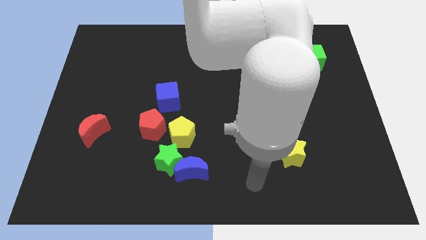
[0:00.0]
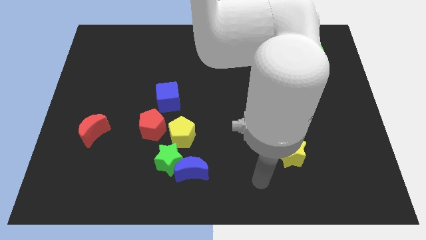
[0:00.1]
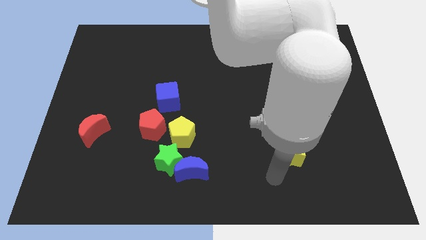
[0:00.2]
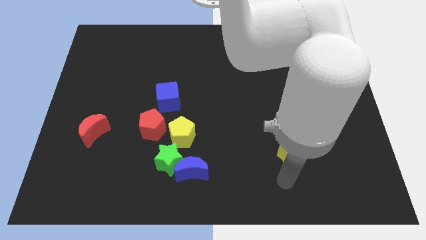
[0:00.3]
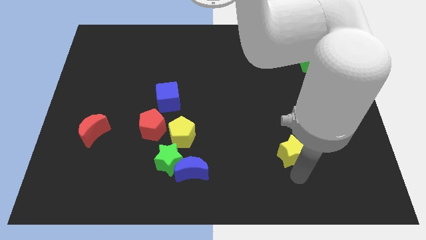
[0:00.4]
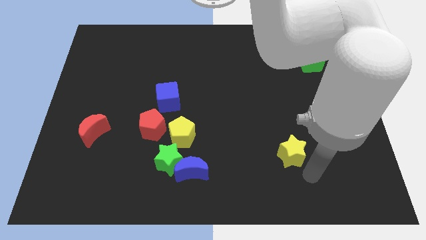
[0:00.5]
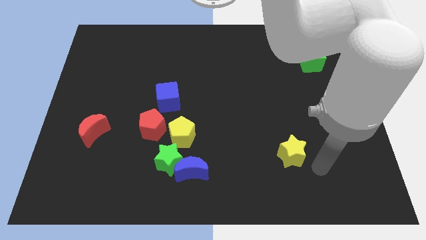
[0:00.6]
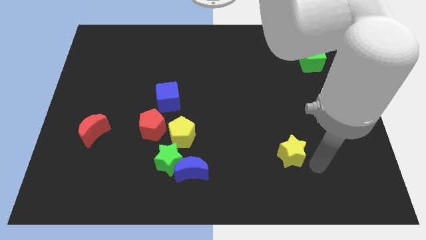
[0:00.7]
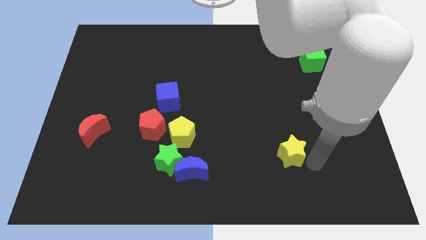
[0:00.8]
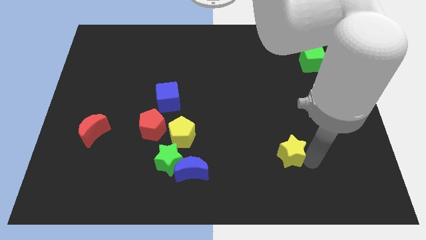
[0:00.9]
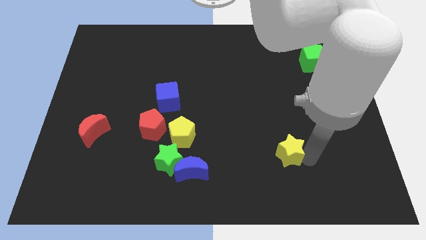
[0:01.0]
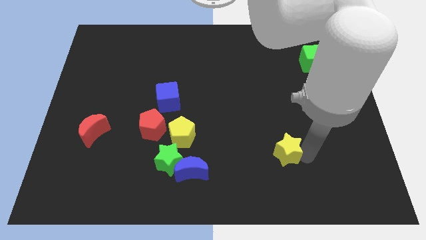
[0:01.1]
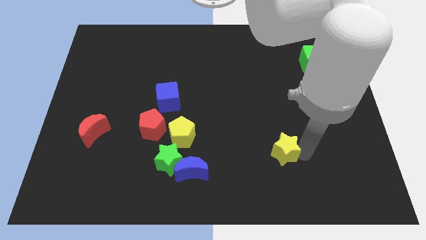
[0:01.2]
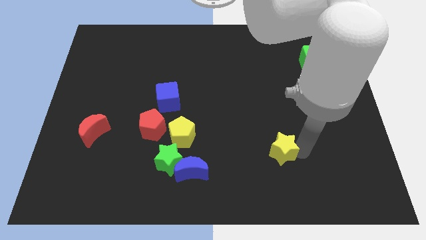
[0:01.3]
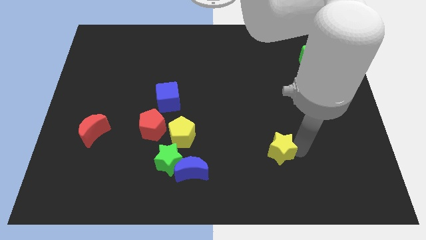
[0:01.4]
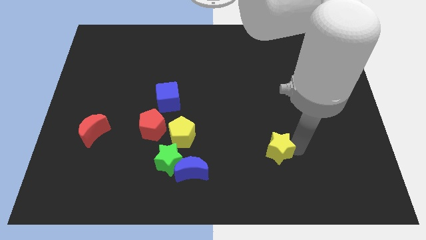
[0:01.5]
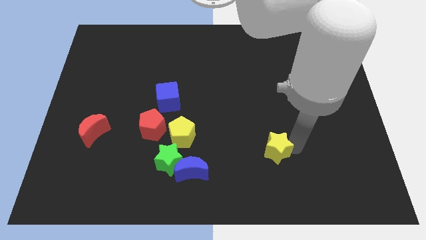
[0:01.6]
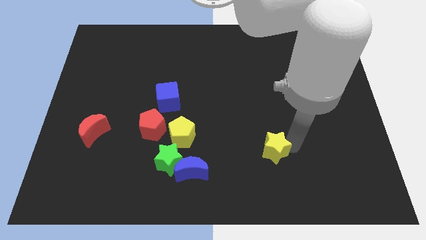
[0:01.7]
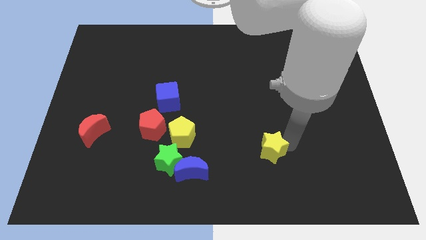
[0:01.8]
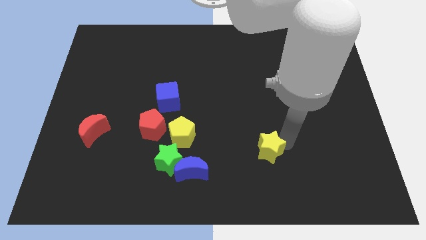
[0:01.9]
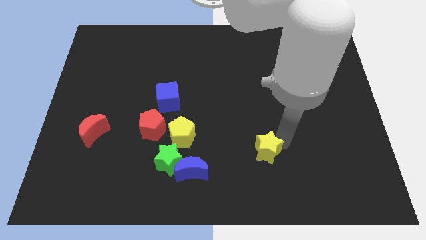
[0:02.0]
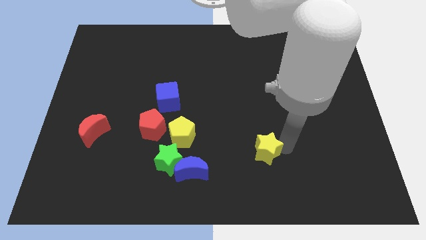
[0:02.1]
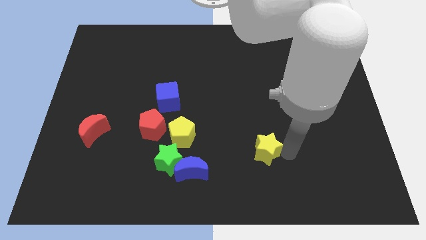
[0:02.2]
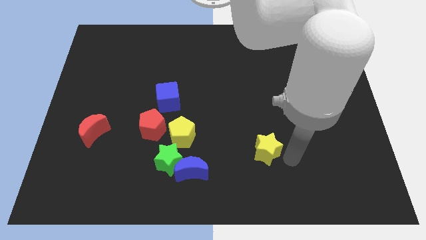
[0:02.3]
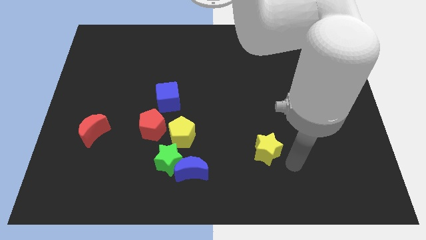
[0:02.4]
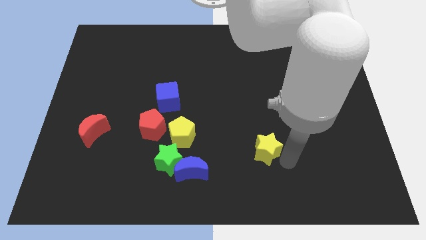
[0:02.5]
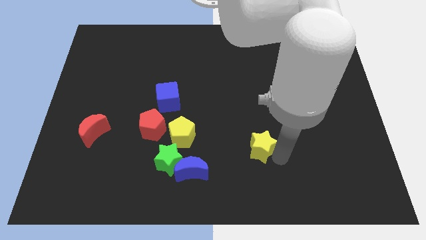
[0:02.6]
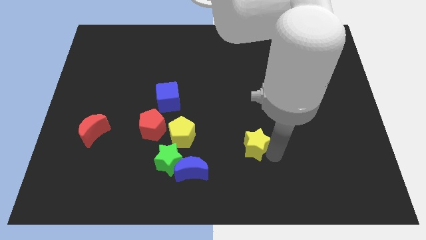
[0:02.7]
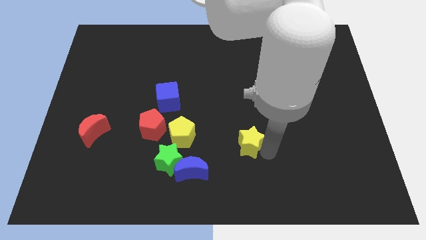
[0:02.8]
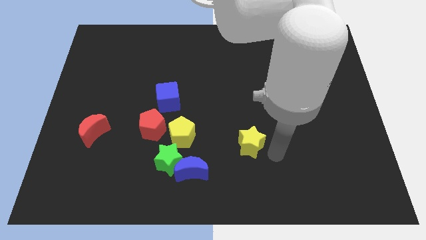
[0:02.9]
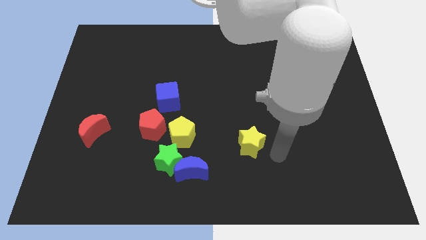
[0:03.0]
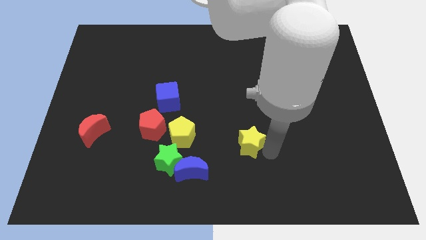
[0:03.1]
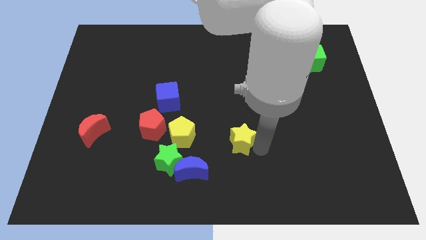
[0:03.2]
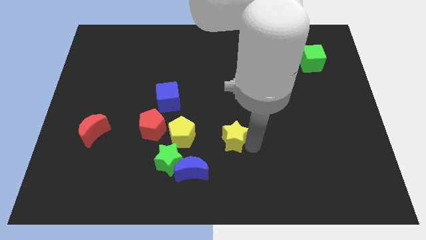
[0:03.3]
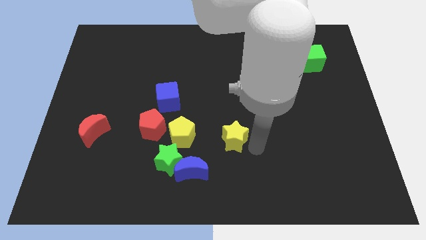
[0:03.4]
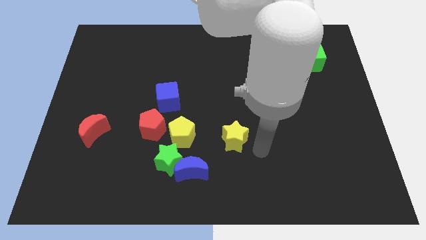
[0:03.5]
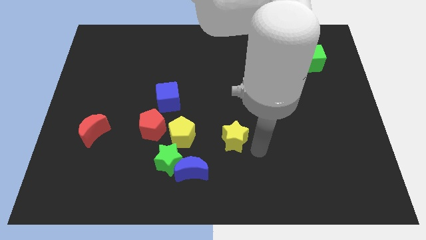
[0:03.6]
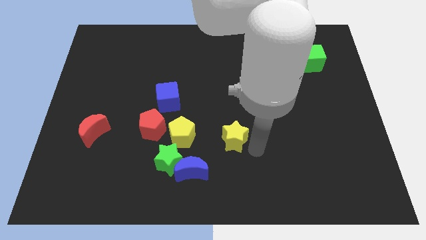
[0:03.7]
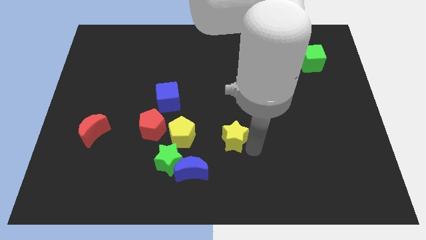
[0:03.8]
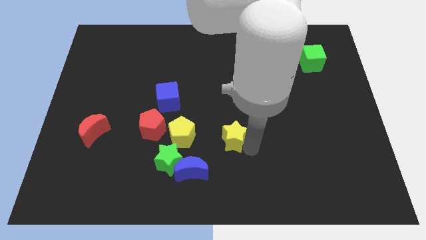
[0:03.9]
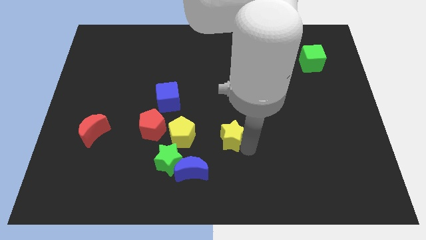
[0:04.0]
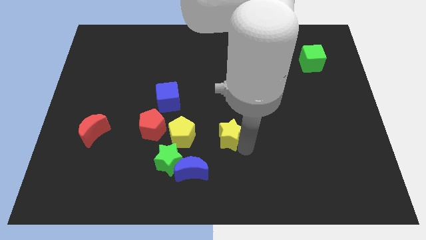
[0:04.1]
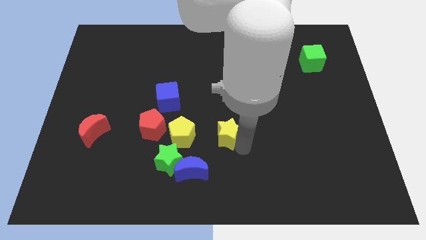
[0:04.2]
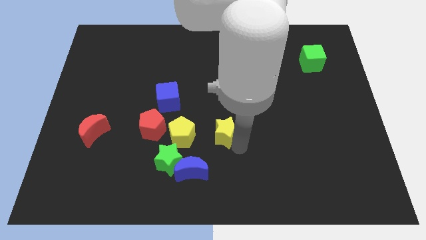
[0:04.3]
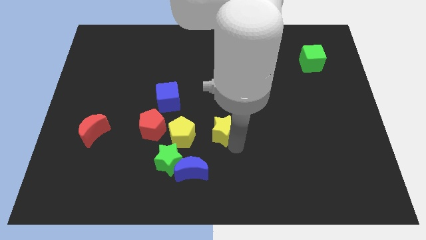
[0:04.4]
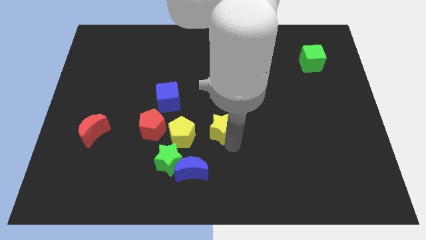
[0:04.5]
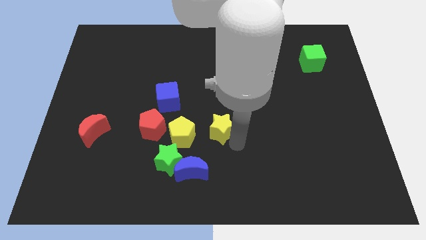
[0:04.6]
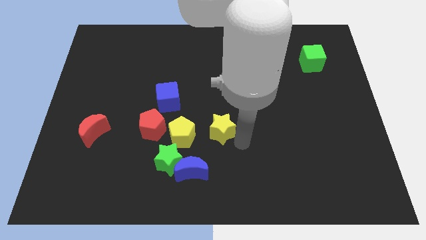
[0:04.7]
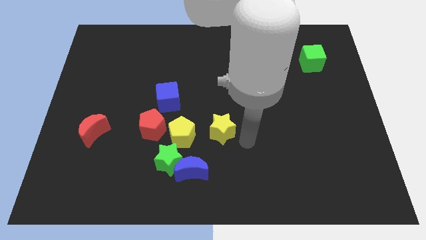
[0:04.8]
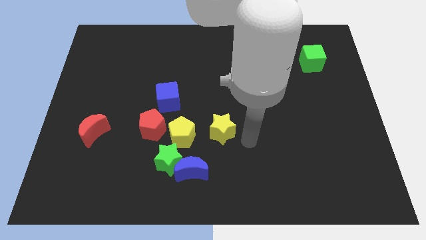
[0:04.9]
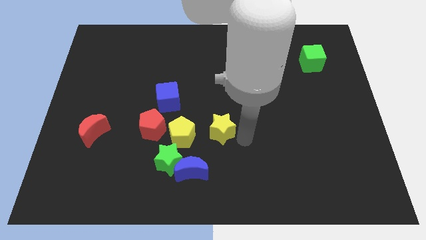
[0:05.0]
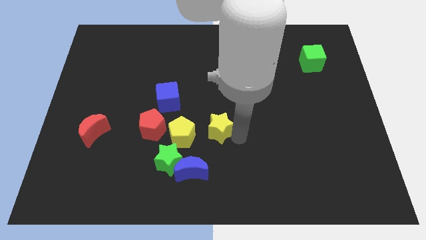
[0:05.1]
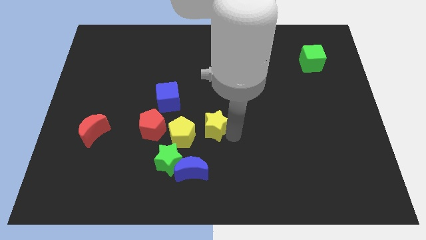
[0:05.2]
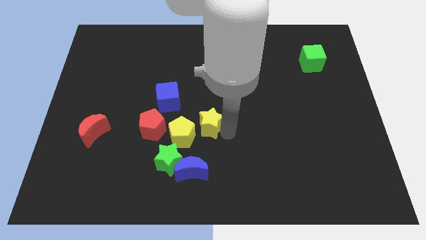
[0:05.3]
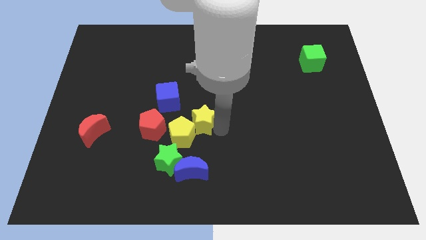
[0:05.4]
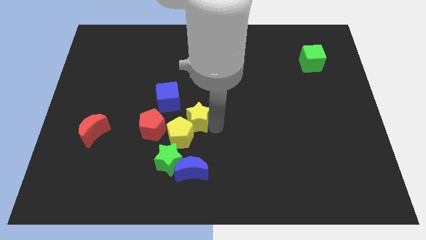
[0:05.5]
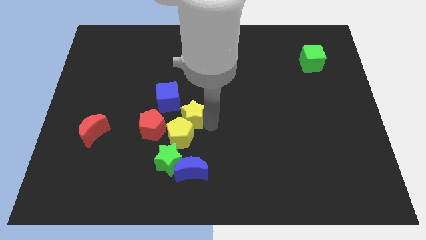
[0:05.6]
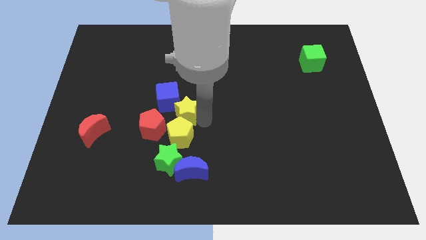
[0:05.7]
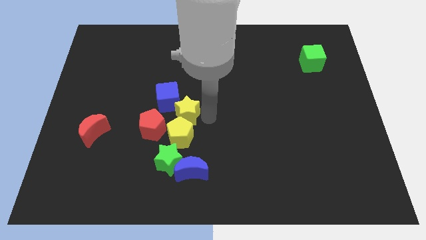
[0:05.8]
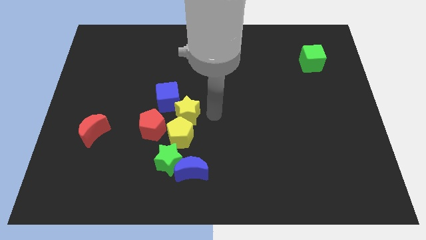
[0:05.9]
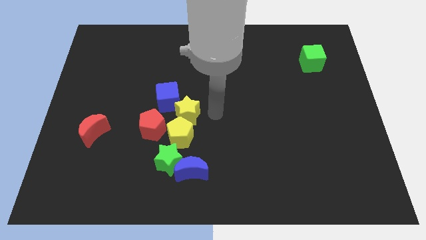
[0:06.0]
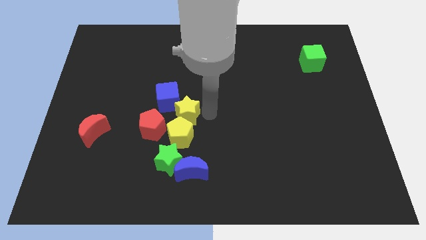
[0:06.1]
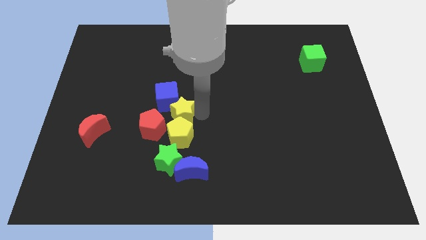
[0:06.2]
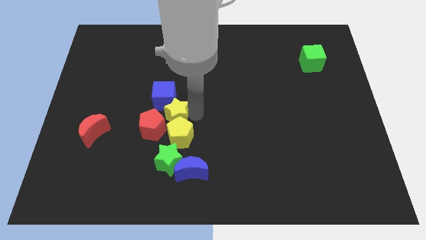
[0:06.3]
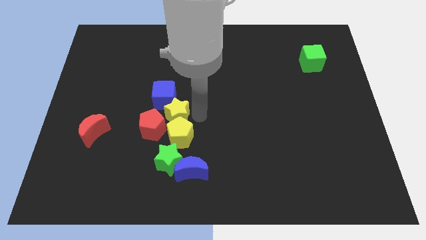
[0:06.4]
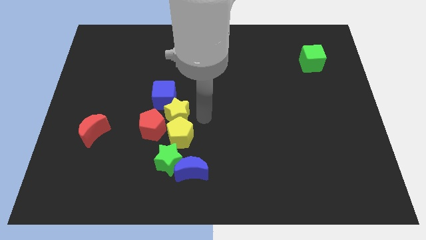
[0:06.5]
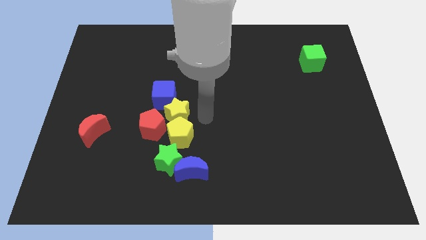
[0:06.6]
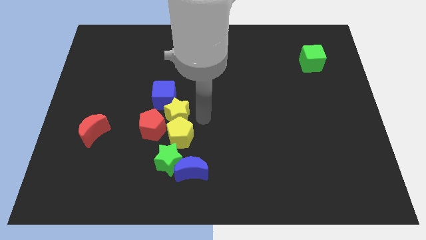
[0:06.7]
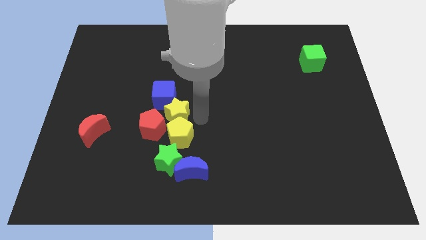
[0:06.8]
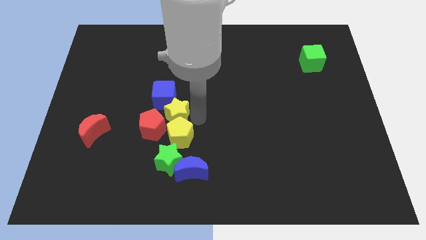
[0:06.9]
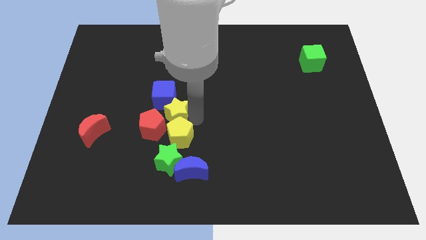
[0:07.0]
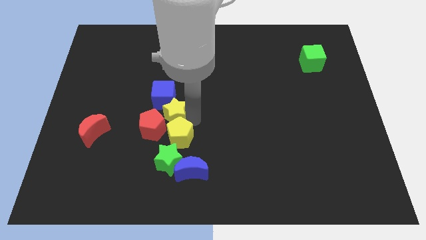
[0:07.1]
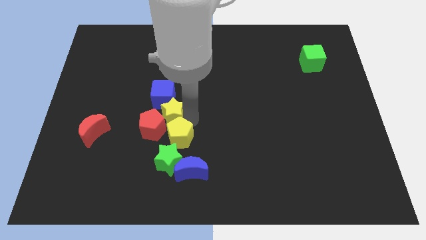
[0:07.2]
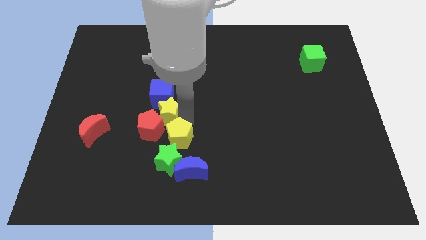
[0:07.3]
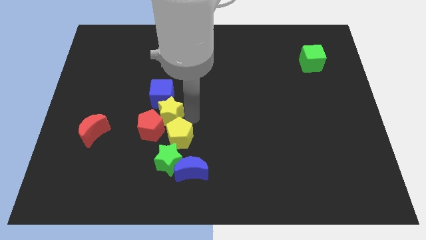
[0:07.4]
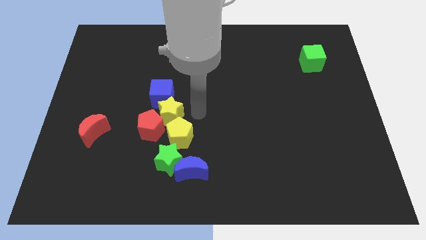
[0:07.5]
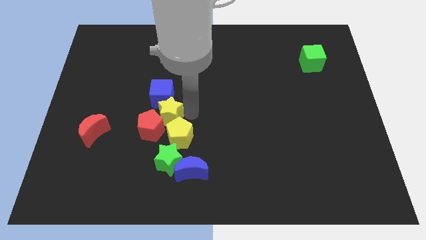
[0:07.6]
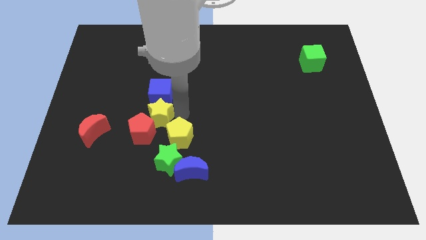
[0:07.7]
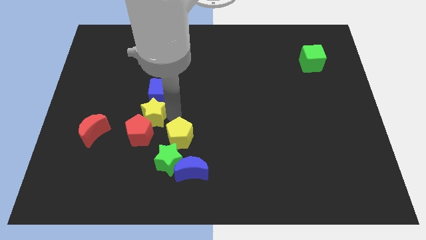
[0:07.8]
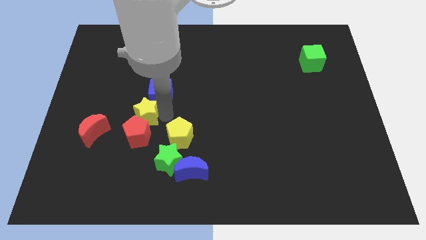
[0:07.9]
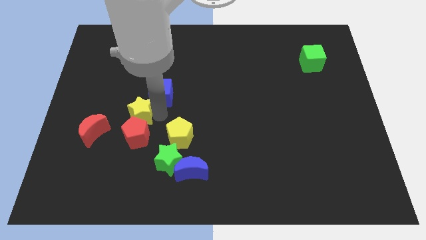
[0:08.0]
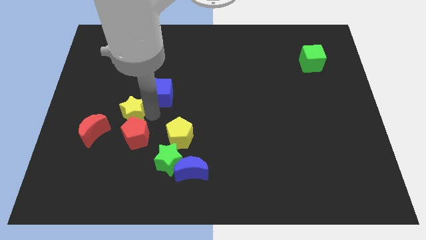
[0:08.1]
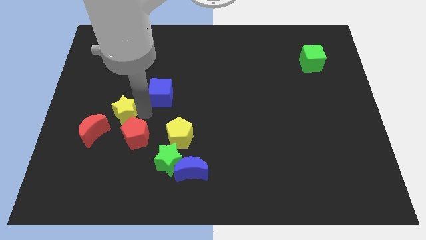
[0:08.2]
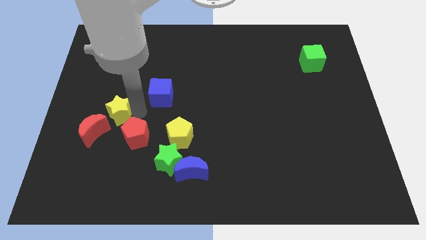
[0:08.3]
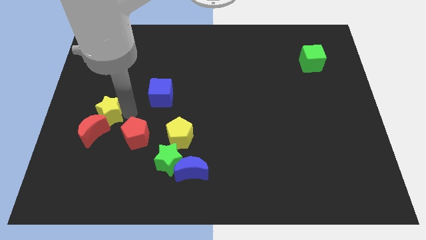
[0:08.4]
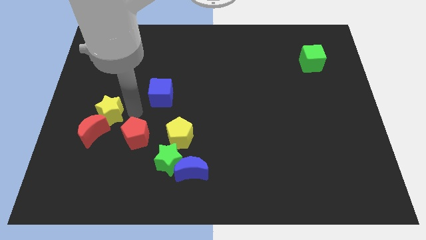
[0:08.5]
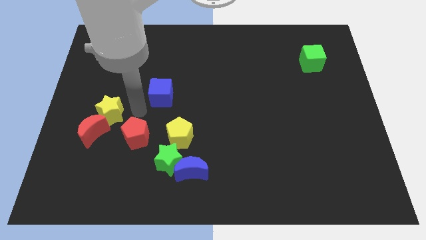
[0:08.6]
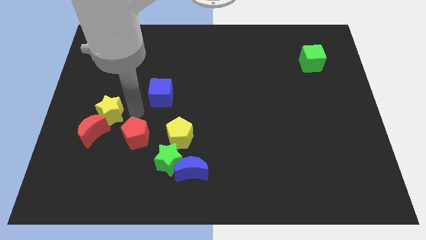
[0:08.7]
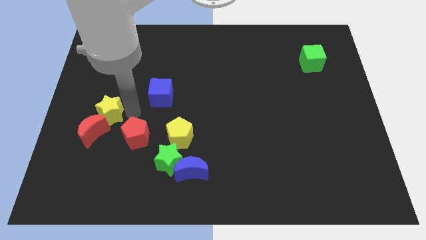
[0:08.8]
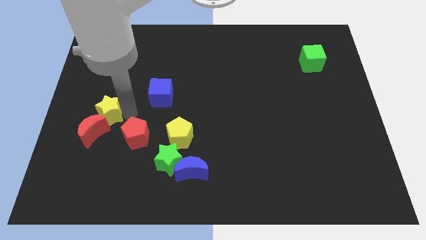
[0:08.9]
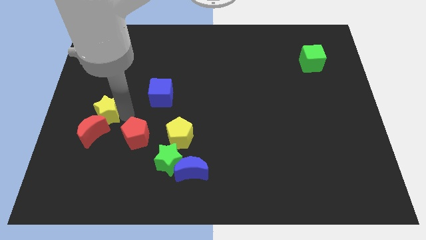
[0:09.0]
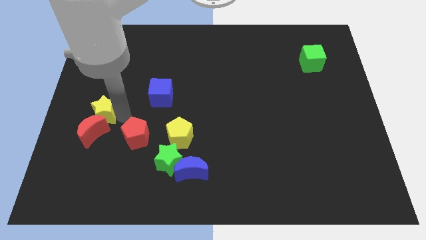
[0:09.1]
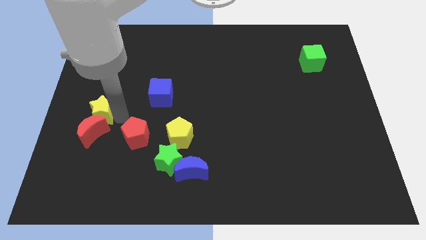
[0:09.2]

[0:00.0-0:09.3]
put the yellow star to the left side of the board
